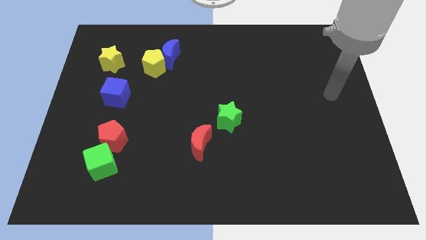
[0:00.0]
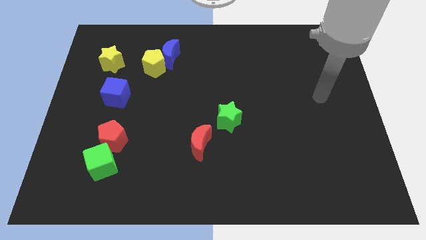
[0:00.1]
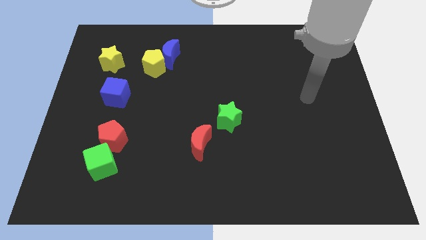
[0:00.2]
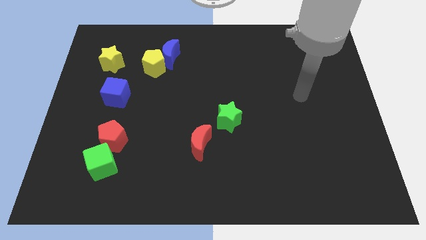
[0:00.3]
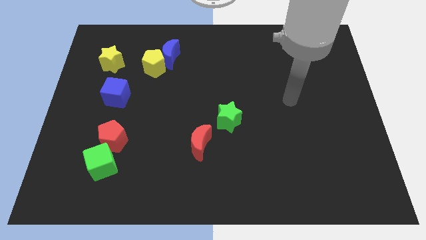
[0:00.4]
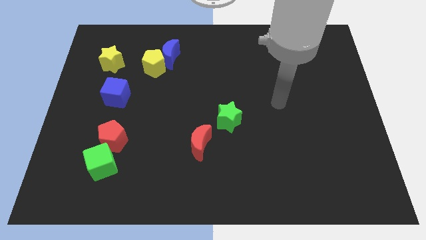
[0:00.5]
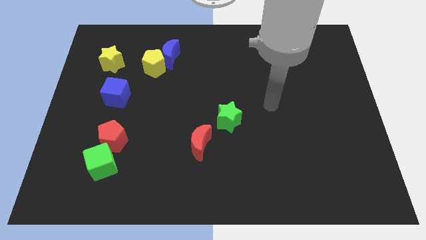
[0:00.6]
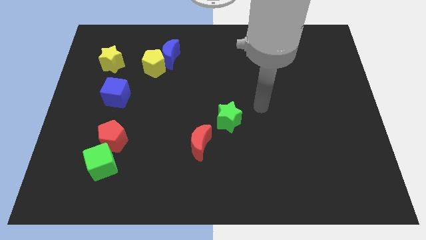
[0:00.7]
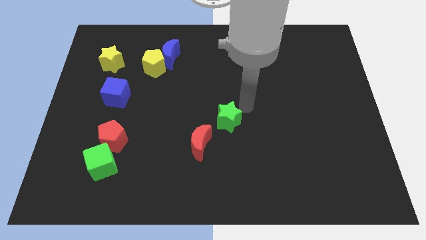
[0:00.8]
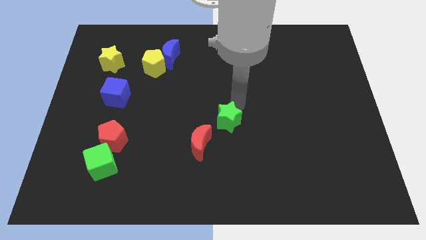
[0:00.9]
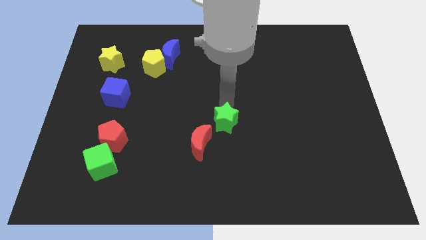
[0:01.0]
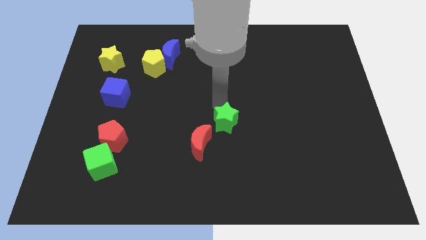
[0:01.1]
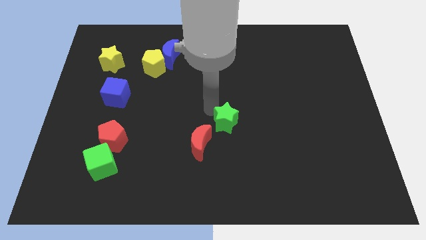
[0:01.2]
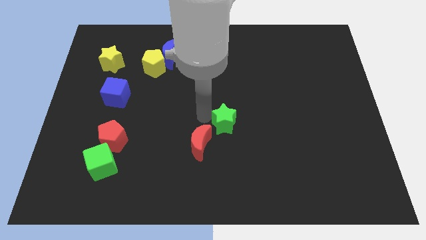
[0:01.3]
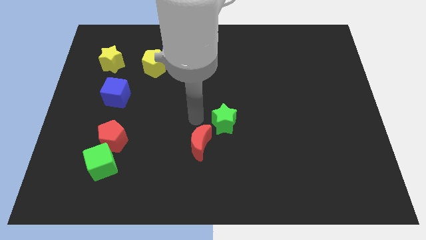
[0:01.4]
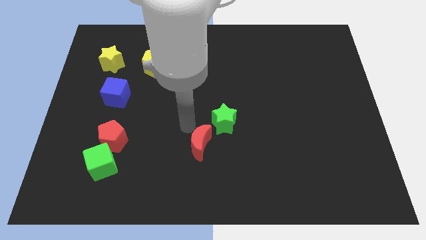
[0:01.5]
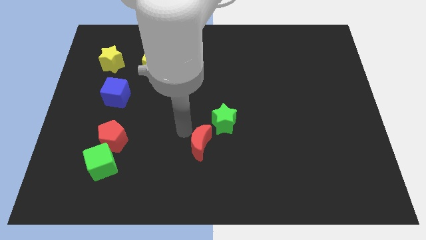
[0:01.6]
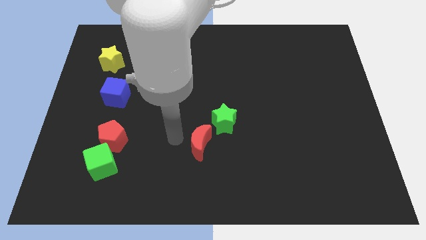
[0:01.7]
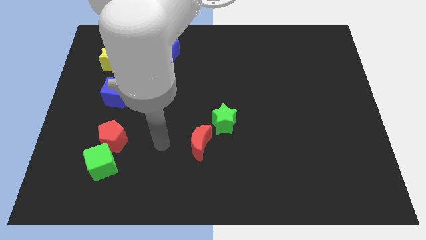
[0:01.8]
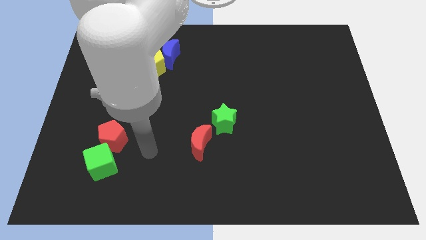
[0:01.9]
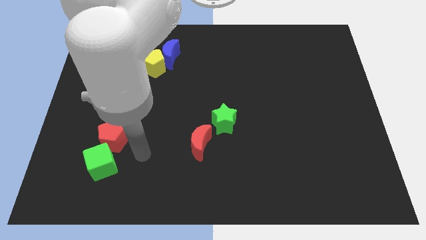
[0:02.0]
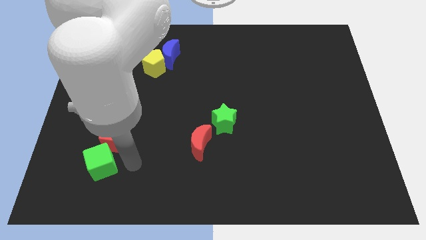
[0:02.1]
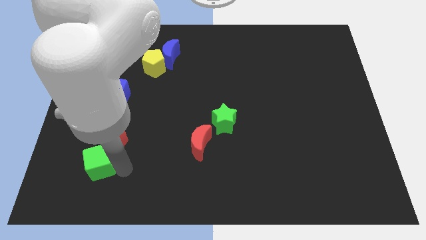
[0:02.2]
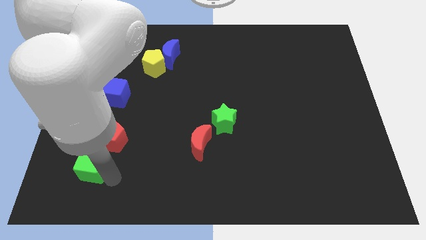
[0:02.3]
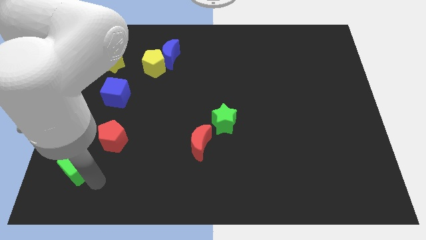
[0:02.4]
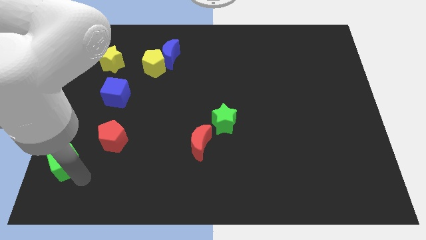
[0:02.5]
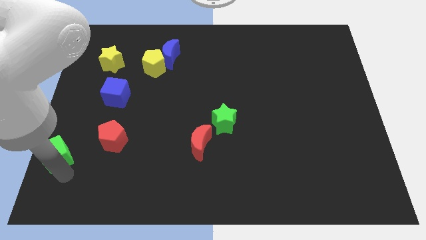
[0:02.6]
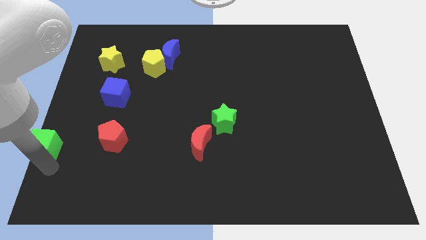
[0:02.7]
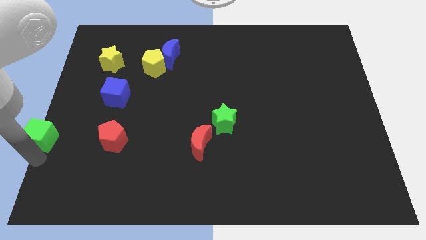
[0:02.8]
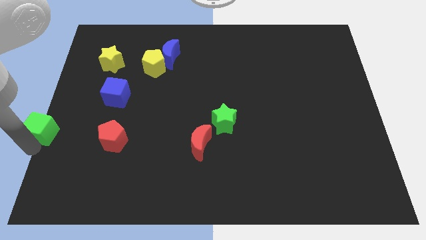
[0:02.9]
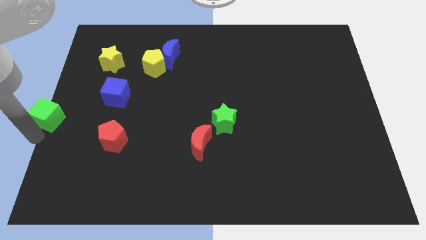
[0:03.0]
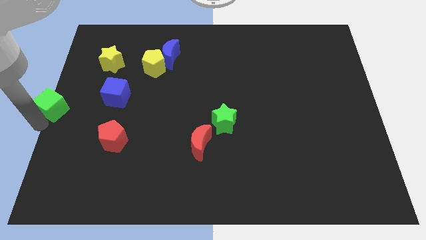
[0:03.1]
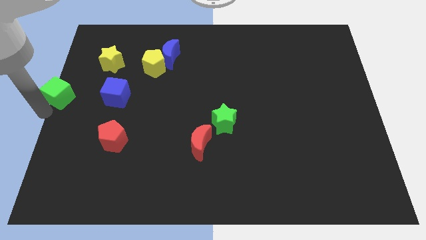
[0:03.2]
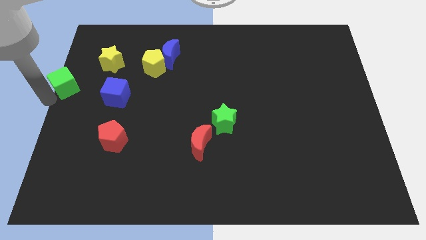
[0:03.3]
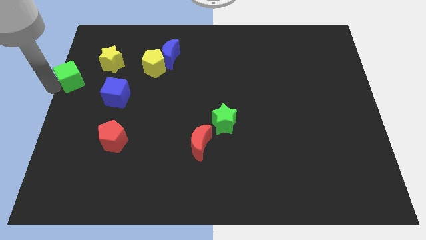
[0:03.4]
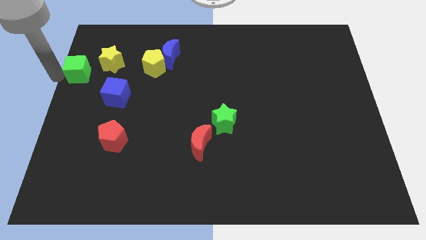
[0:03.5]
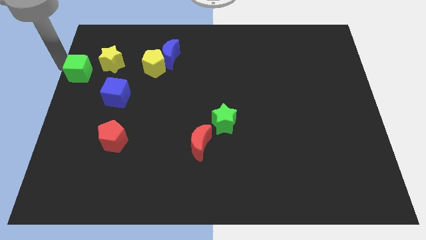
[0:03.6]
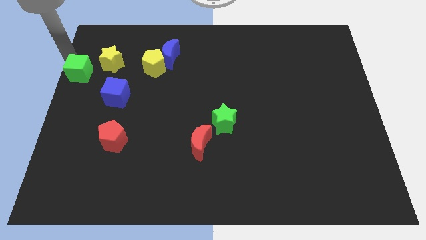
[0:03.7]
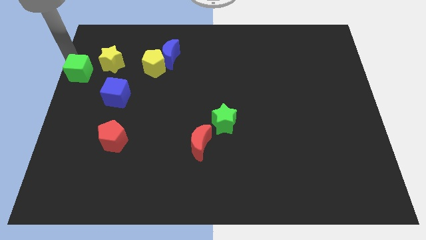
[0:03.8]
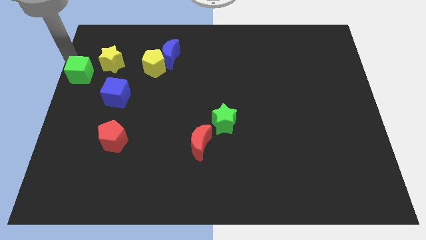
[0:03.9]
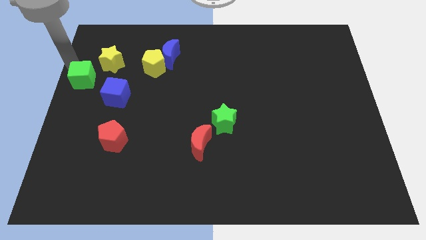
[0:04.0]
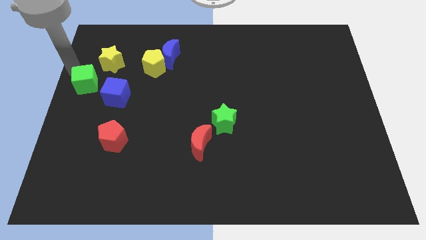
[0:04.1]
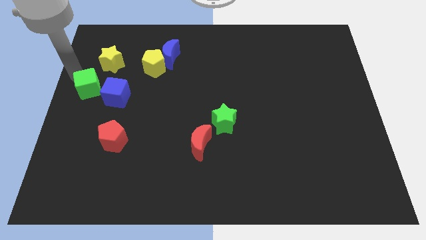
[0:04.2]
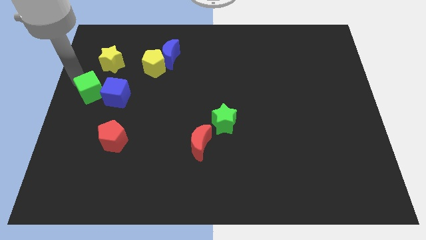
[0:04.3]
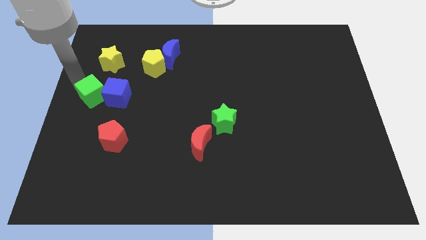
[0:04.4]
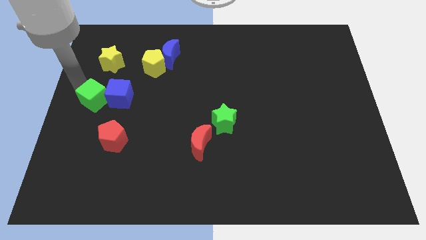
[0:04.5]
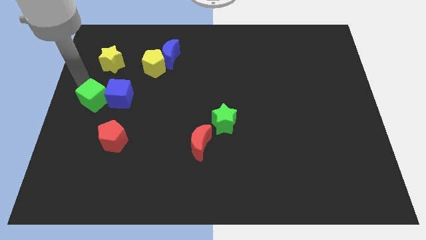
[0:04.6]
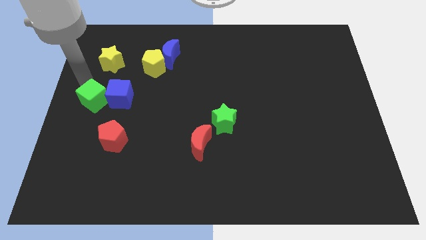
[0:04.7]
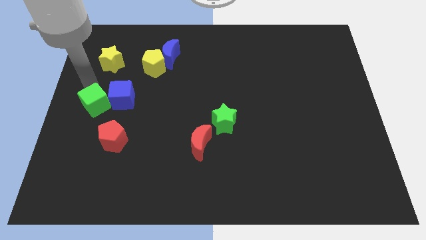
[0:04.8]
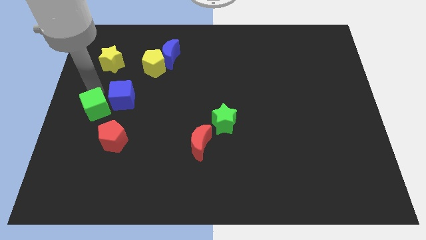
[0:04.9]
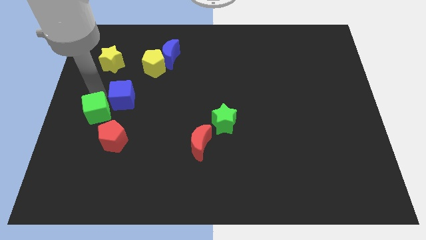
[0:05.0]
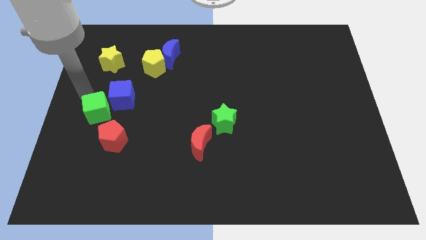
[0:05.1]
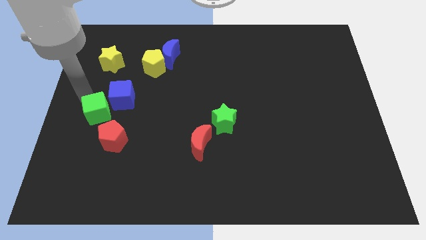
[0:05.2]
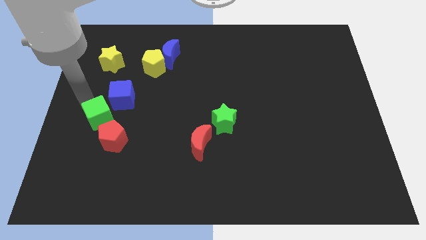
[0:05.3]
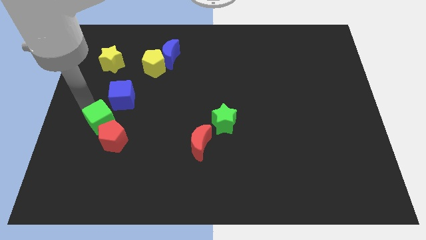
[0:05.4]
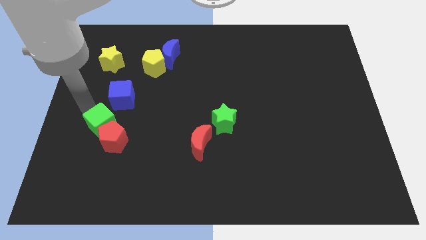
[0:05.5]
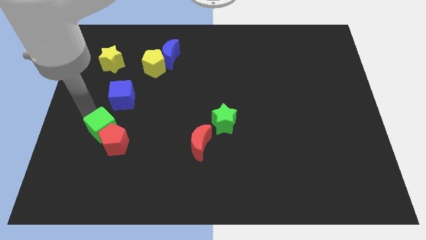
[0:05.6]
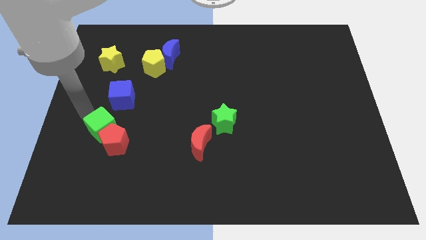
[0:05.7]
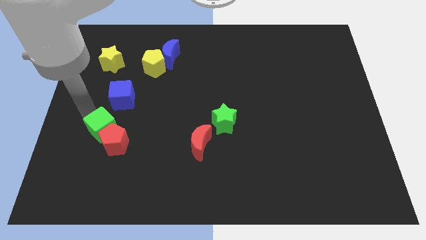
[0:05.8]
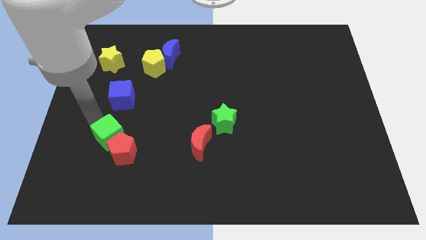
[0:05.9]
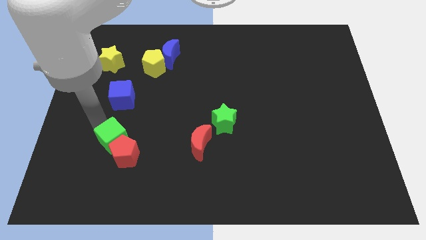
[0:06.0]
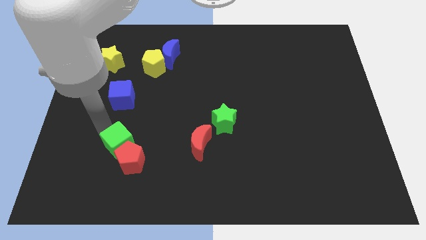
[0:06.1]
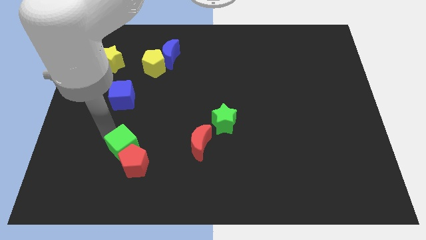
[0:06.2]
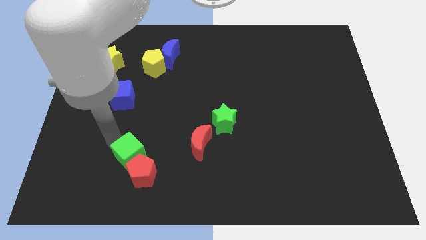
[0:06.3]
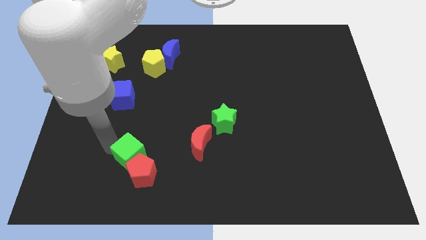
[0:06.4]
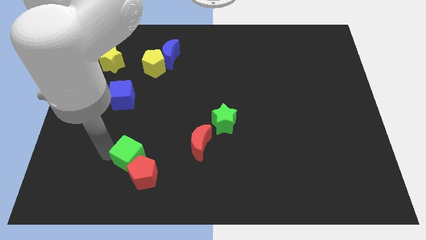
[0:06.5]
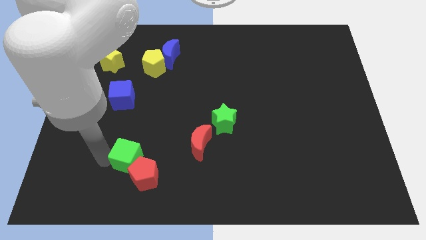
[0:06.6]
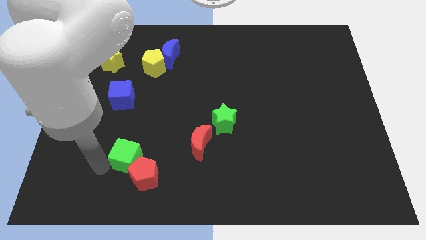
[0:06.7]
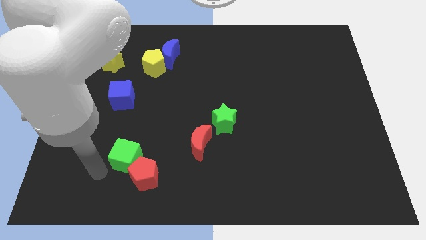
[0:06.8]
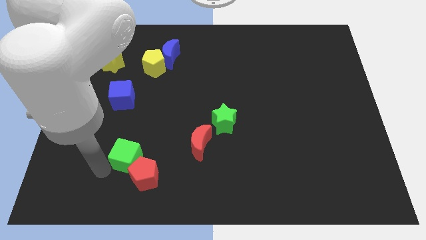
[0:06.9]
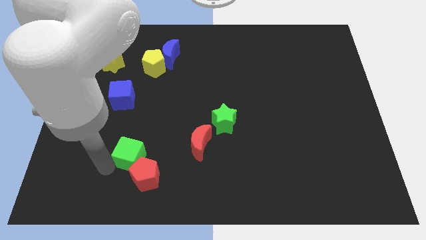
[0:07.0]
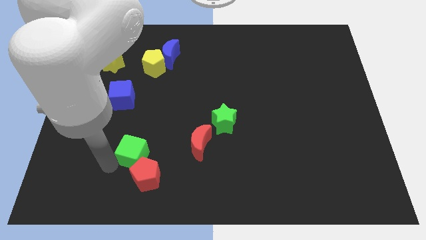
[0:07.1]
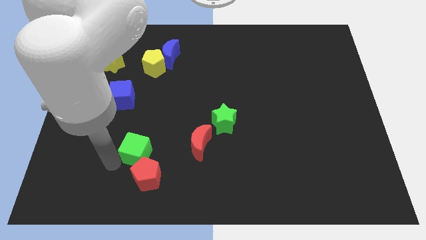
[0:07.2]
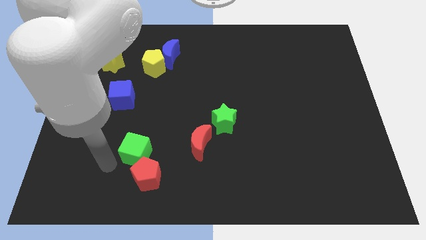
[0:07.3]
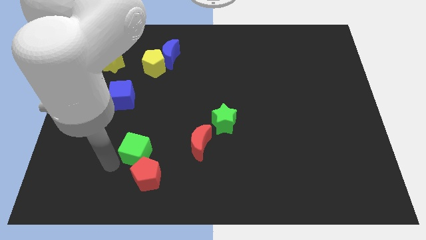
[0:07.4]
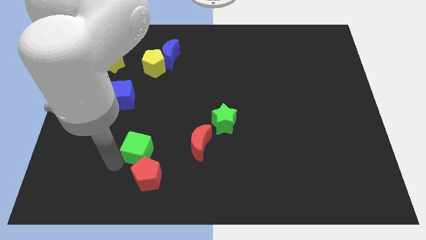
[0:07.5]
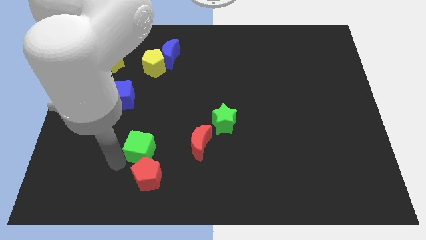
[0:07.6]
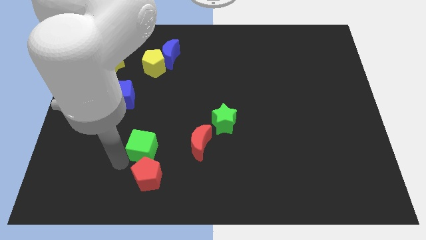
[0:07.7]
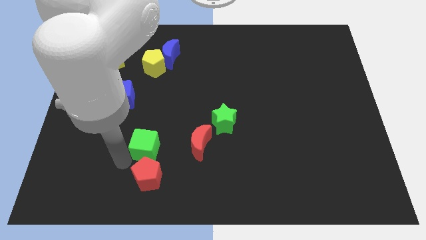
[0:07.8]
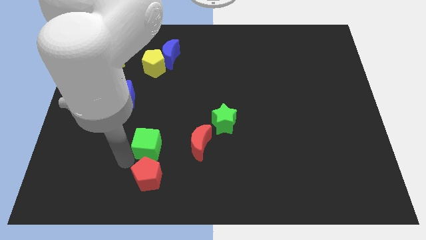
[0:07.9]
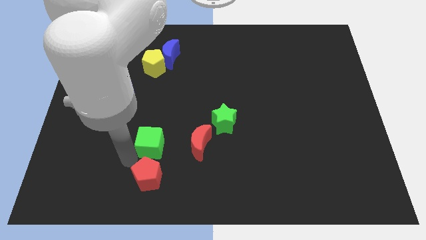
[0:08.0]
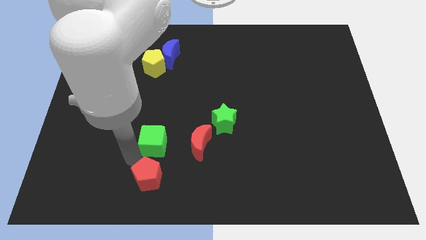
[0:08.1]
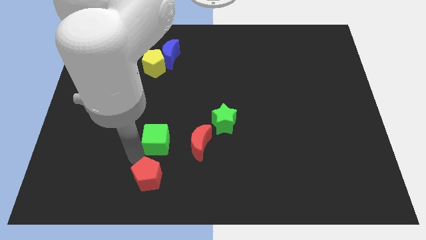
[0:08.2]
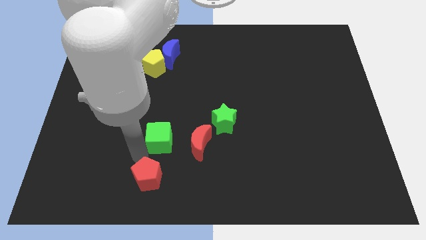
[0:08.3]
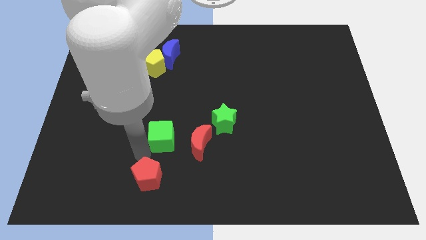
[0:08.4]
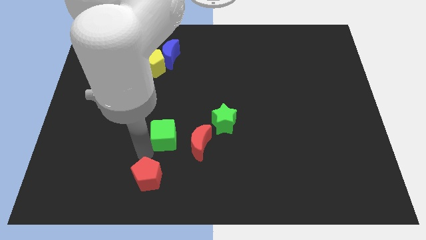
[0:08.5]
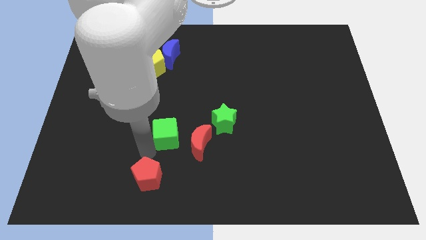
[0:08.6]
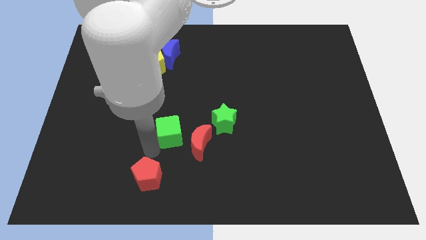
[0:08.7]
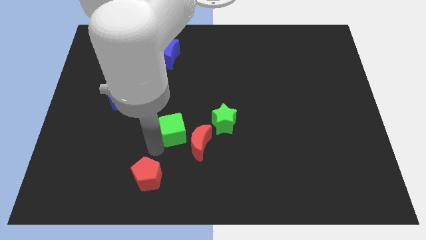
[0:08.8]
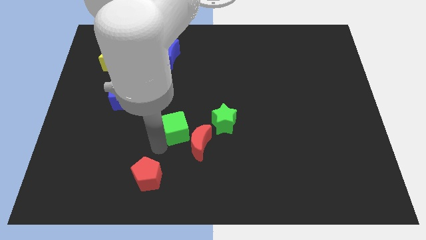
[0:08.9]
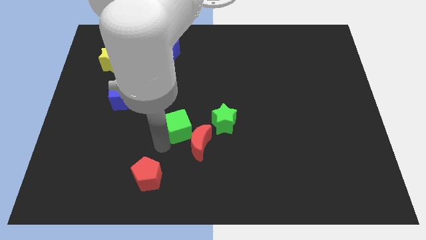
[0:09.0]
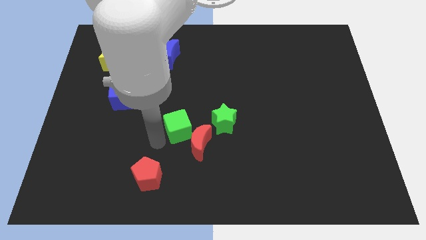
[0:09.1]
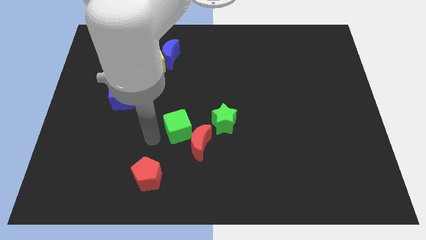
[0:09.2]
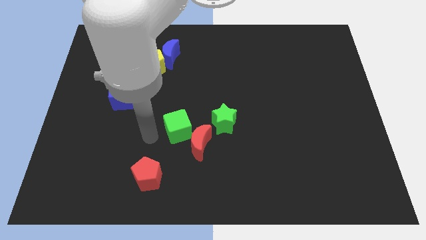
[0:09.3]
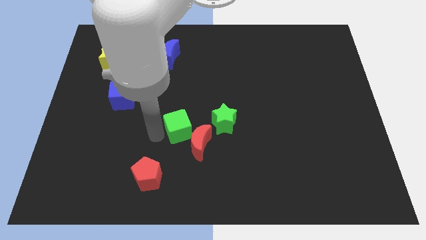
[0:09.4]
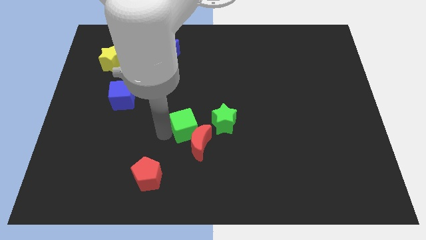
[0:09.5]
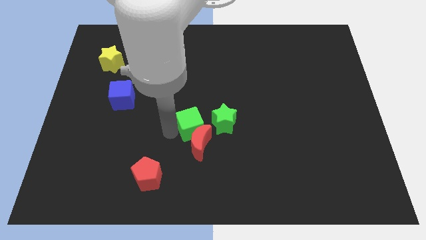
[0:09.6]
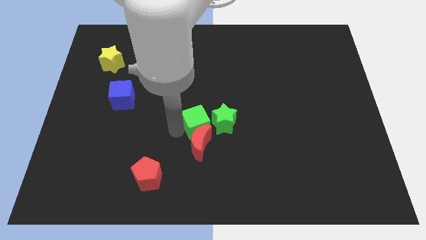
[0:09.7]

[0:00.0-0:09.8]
slide the green cube to the green star
